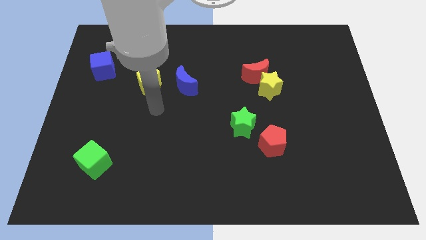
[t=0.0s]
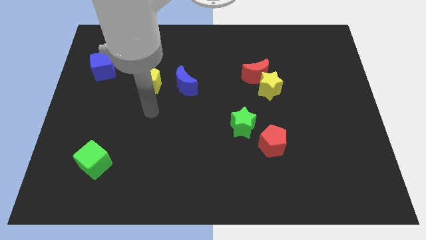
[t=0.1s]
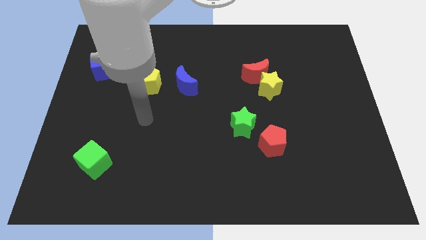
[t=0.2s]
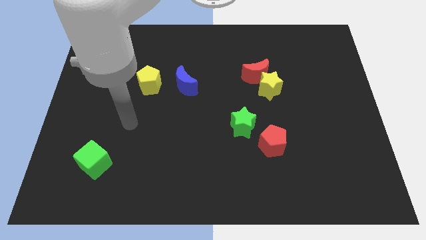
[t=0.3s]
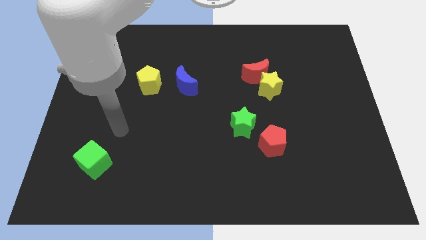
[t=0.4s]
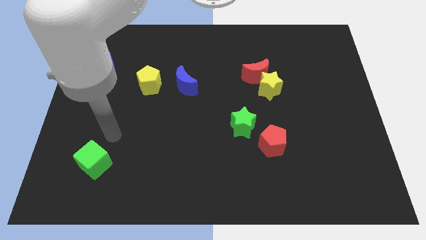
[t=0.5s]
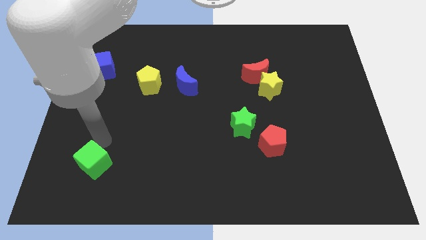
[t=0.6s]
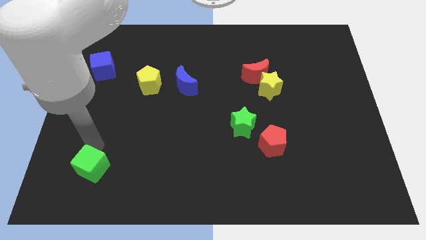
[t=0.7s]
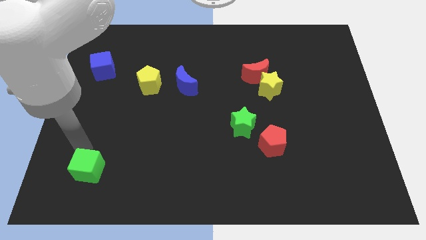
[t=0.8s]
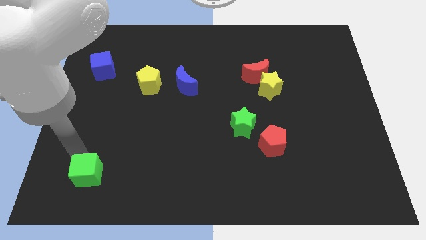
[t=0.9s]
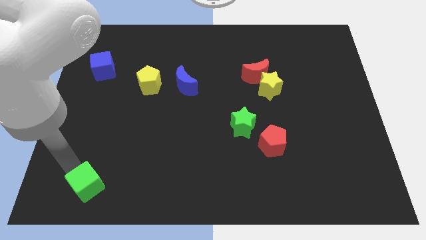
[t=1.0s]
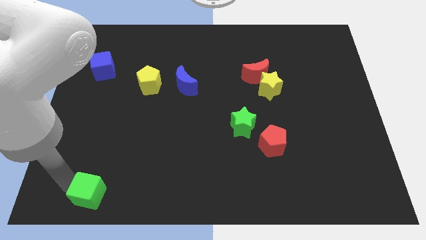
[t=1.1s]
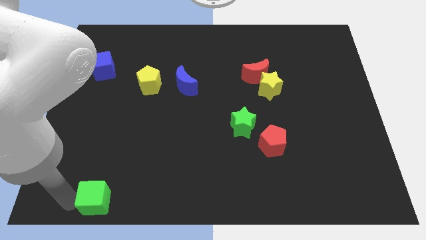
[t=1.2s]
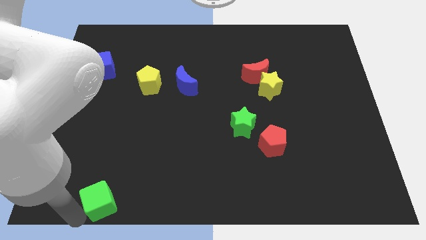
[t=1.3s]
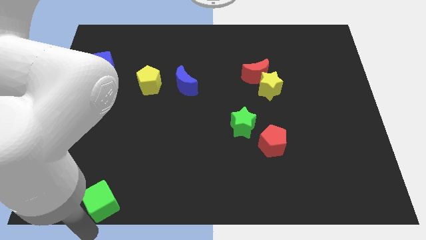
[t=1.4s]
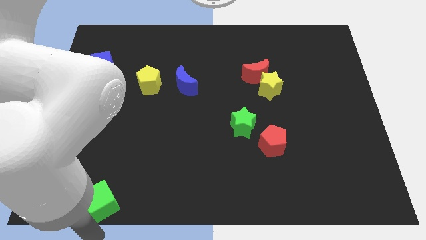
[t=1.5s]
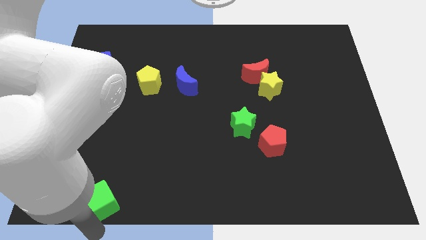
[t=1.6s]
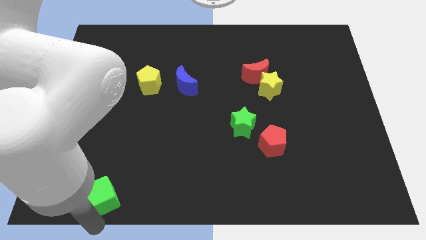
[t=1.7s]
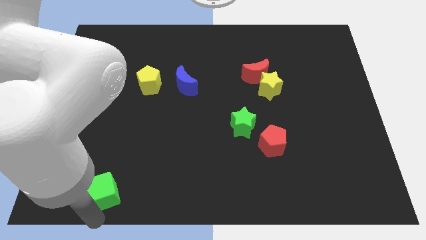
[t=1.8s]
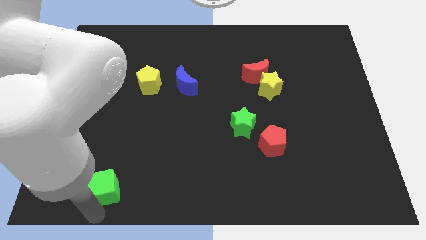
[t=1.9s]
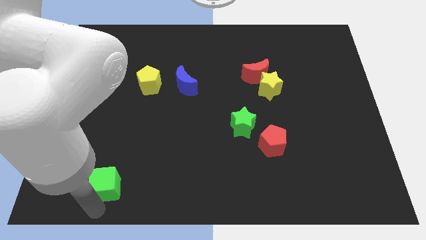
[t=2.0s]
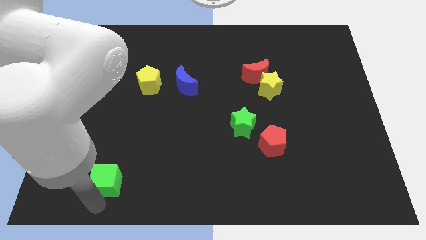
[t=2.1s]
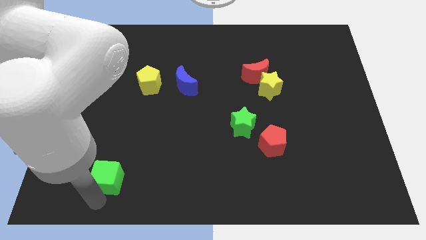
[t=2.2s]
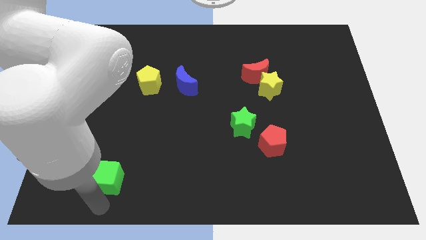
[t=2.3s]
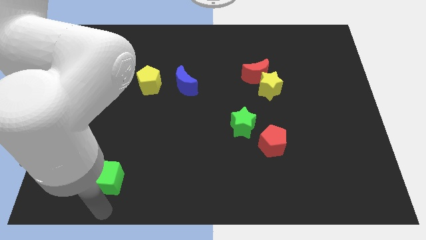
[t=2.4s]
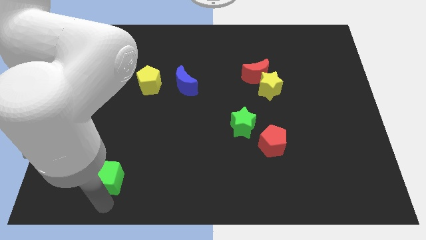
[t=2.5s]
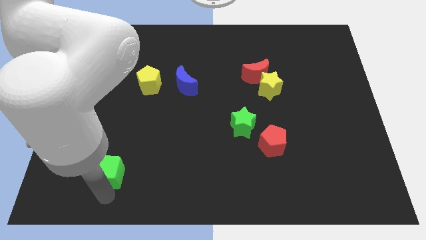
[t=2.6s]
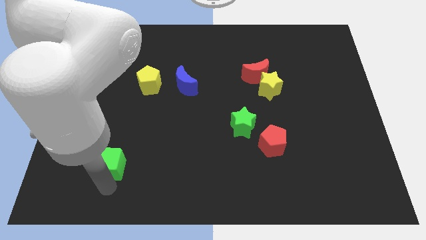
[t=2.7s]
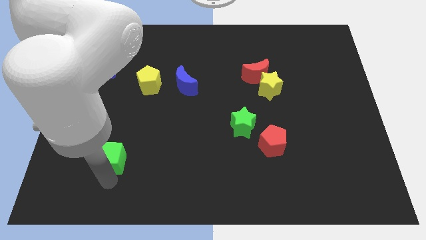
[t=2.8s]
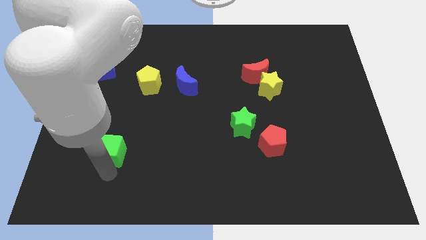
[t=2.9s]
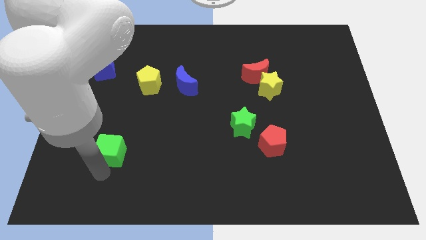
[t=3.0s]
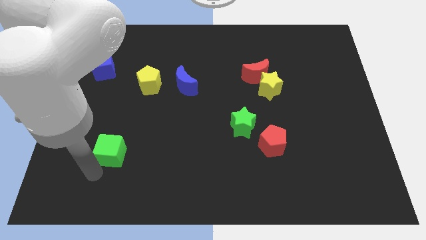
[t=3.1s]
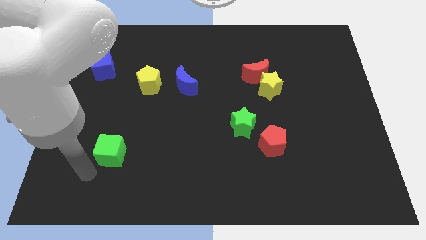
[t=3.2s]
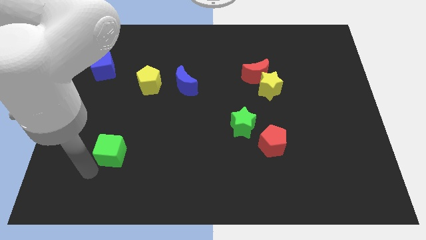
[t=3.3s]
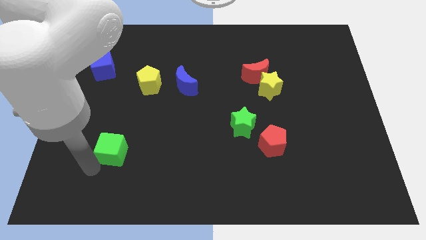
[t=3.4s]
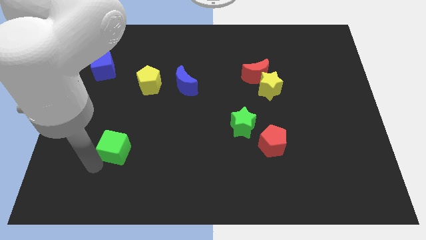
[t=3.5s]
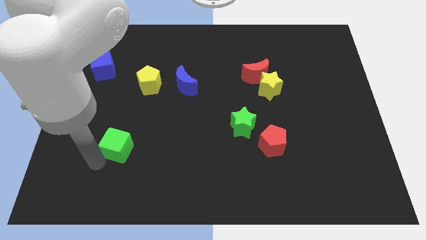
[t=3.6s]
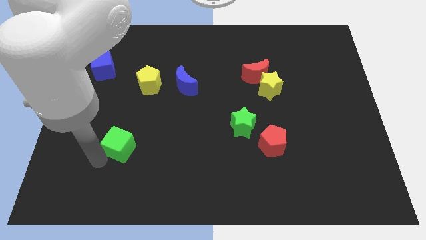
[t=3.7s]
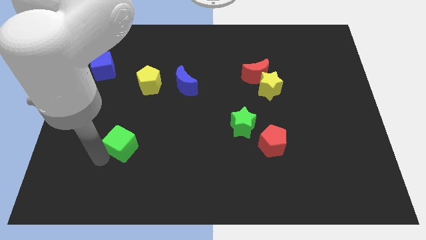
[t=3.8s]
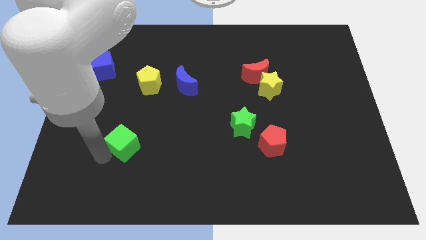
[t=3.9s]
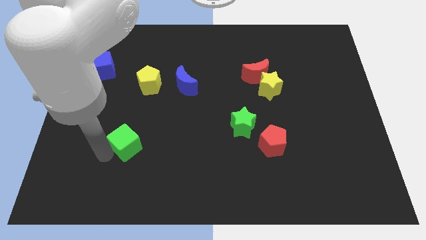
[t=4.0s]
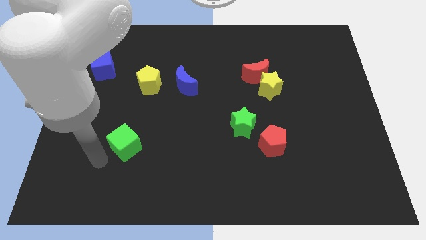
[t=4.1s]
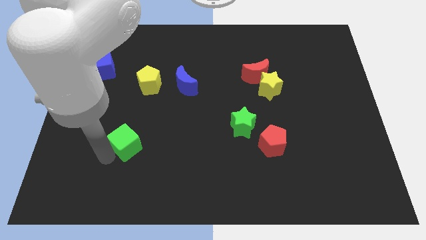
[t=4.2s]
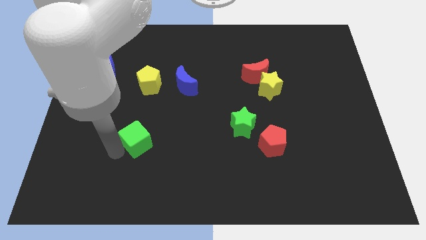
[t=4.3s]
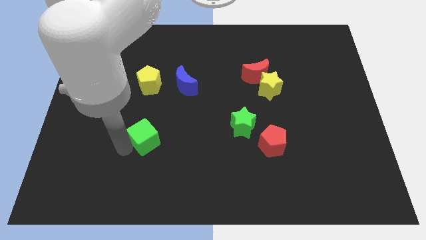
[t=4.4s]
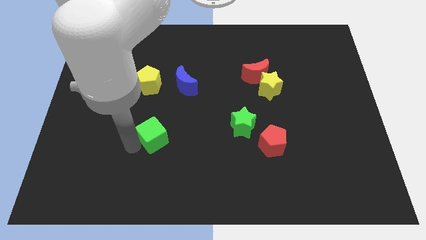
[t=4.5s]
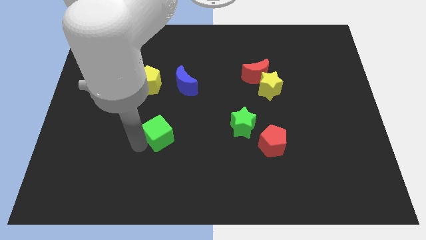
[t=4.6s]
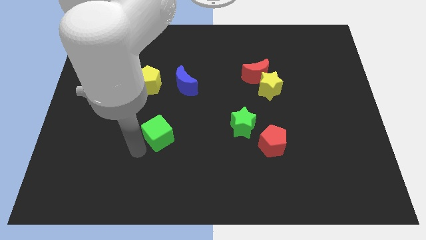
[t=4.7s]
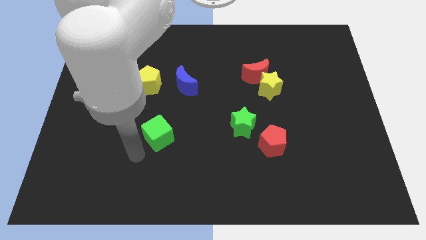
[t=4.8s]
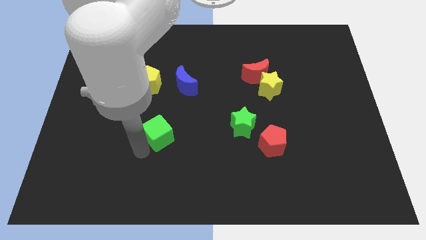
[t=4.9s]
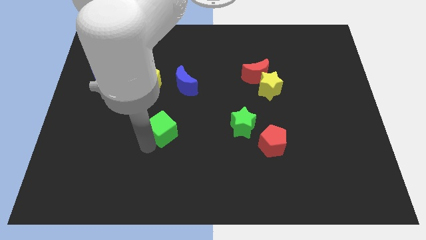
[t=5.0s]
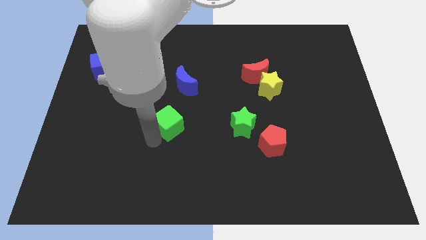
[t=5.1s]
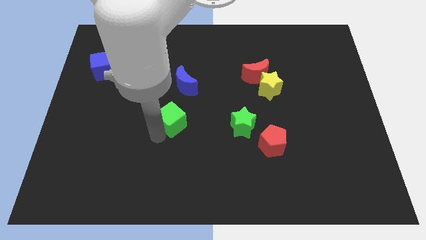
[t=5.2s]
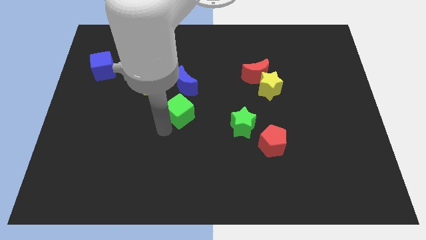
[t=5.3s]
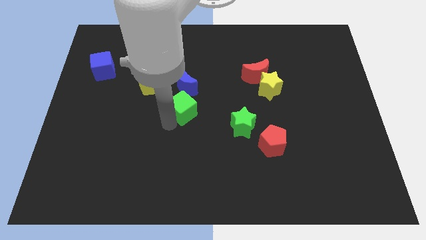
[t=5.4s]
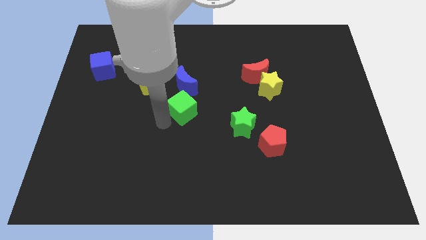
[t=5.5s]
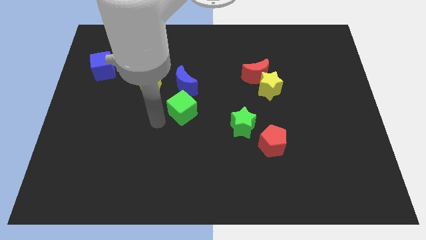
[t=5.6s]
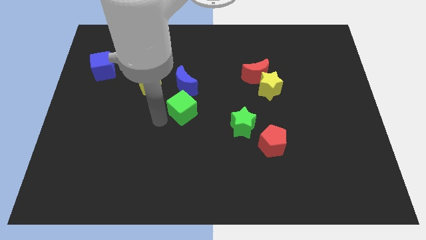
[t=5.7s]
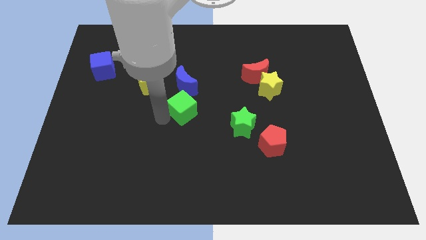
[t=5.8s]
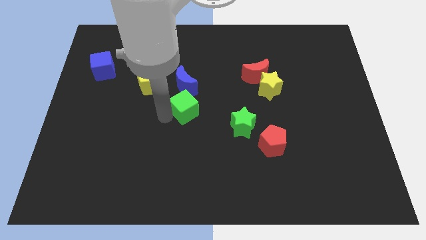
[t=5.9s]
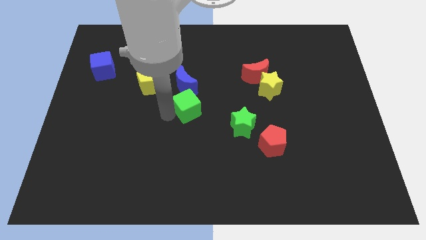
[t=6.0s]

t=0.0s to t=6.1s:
put the green cube diagonally down and to the right of the blue moon

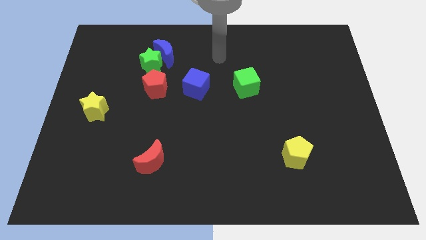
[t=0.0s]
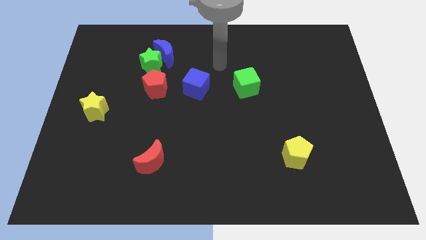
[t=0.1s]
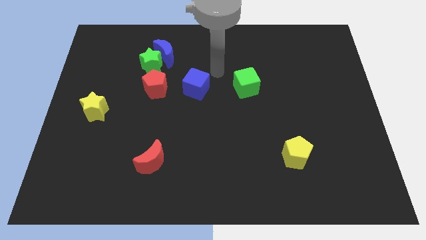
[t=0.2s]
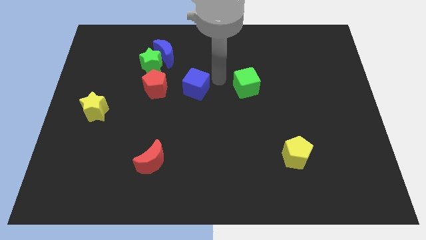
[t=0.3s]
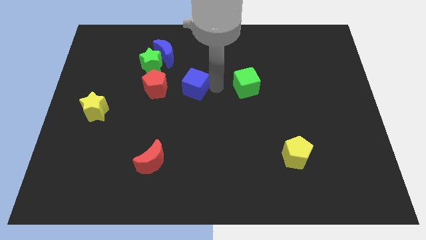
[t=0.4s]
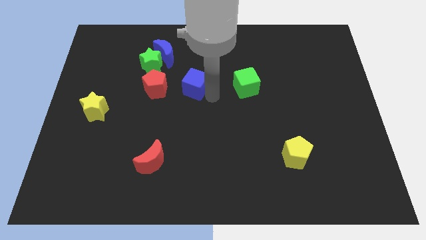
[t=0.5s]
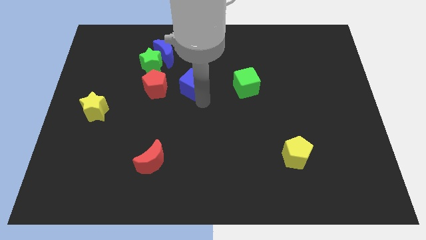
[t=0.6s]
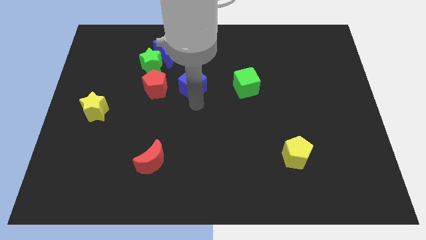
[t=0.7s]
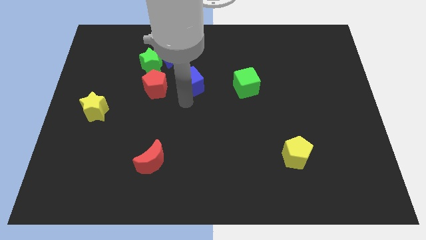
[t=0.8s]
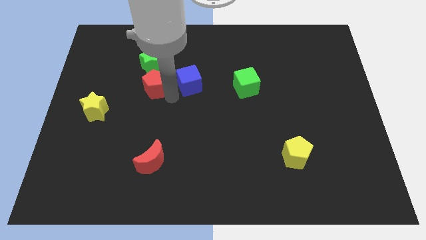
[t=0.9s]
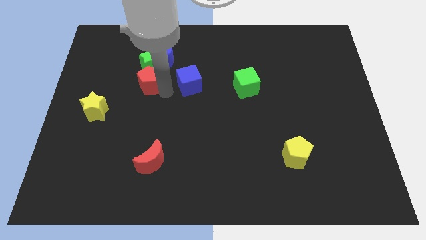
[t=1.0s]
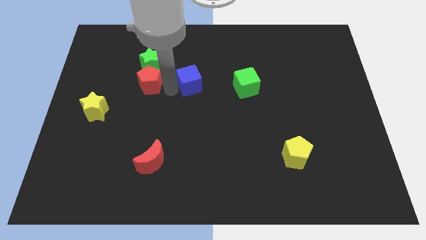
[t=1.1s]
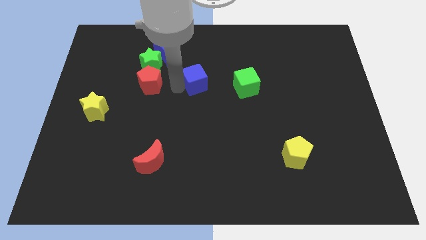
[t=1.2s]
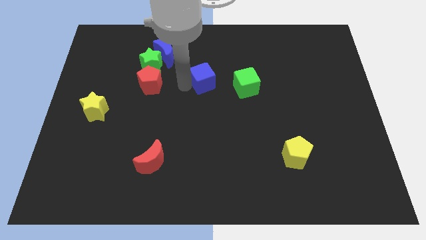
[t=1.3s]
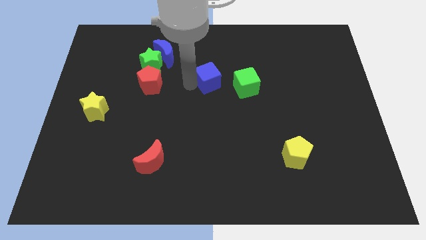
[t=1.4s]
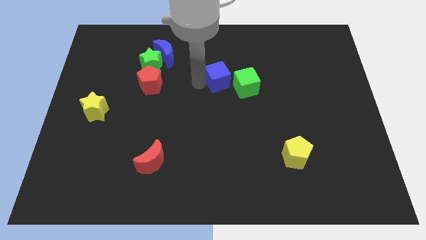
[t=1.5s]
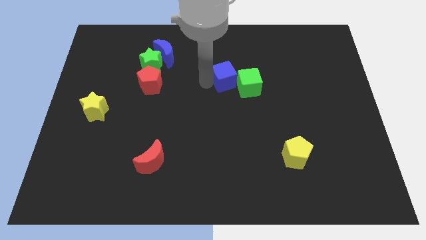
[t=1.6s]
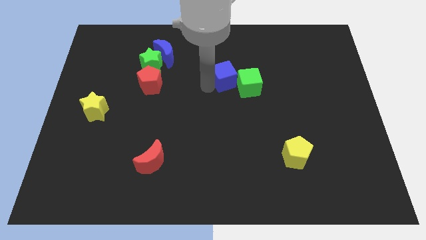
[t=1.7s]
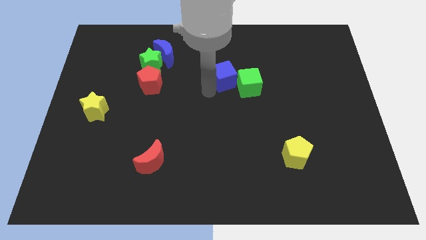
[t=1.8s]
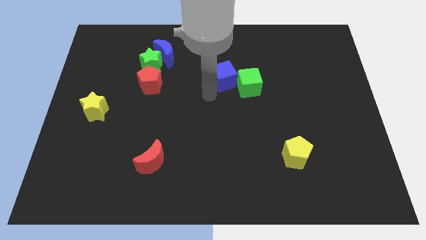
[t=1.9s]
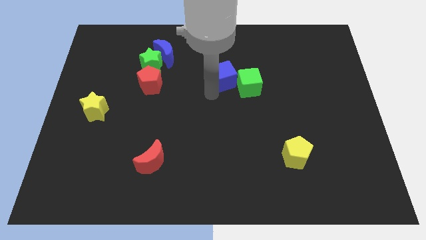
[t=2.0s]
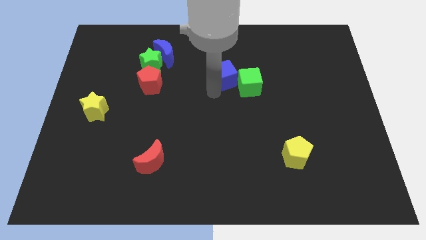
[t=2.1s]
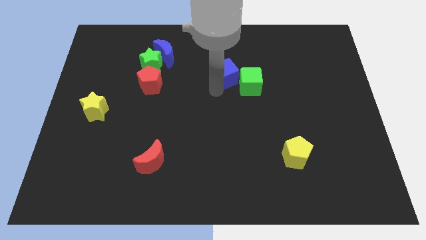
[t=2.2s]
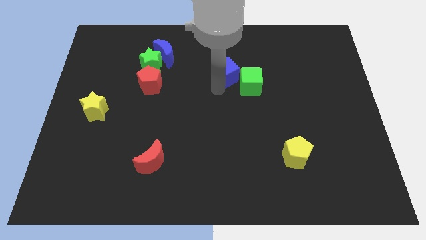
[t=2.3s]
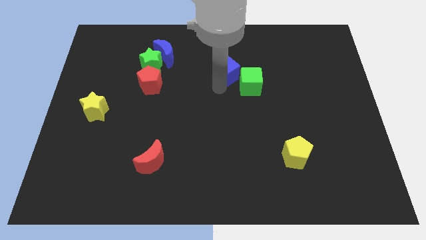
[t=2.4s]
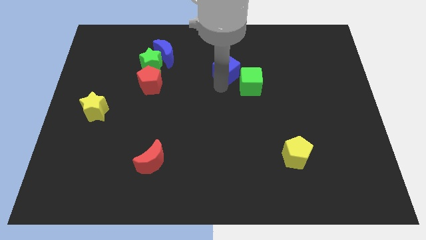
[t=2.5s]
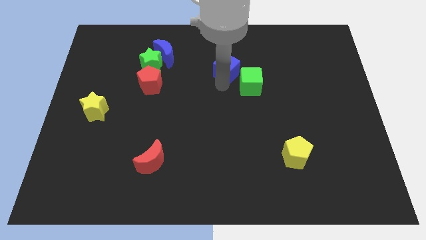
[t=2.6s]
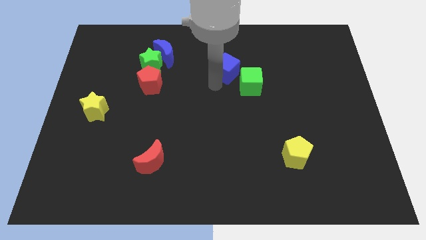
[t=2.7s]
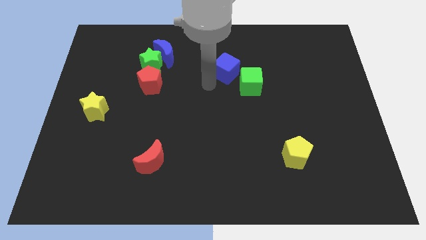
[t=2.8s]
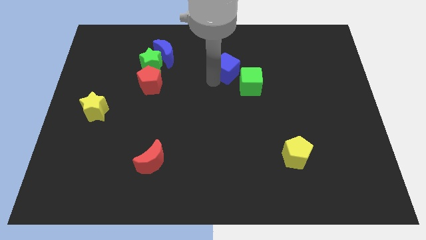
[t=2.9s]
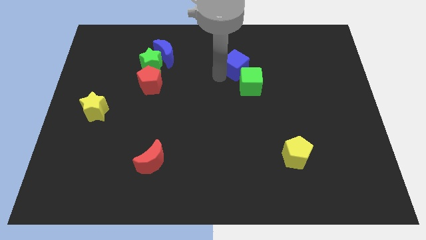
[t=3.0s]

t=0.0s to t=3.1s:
slide the blue cube above the green cube
